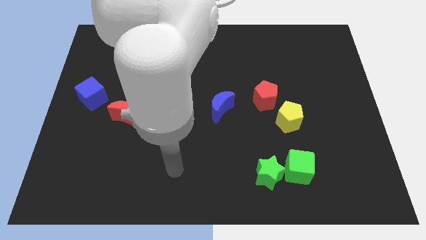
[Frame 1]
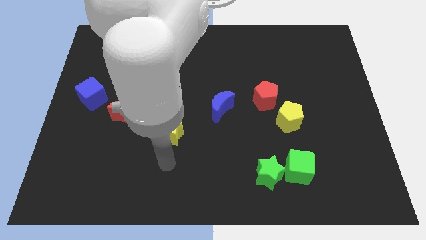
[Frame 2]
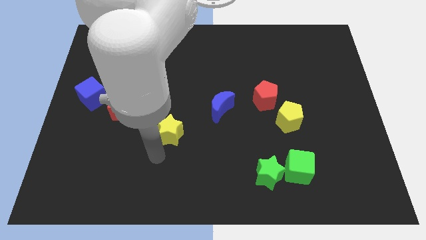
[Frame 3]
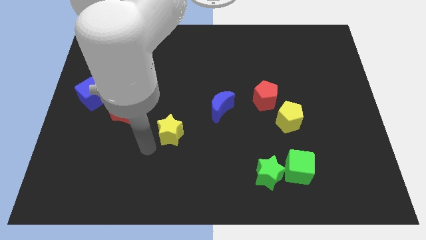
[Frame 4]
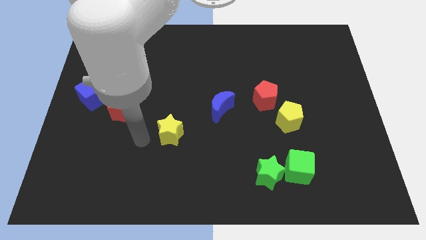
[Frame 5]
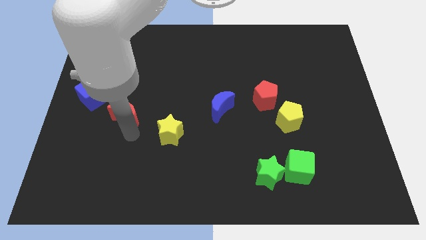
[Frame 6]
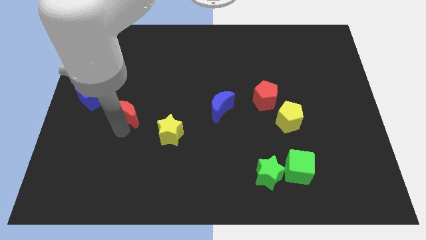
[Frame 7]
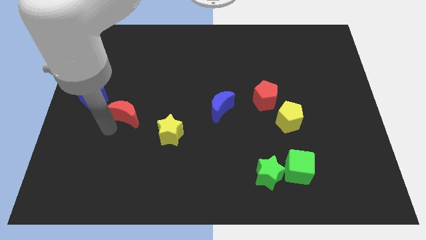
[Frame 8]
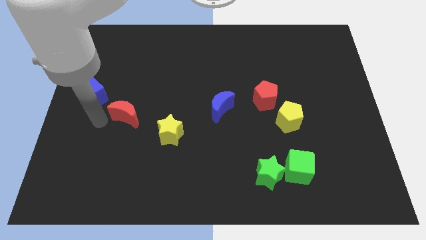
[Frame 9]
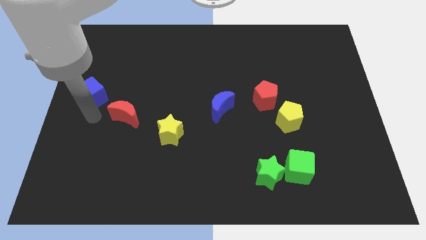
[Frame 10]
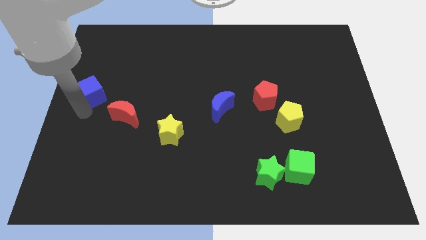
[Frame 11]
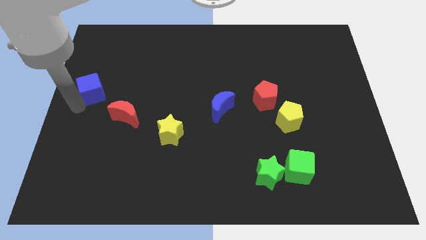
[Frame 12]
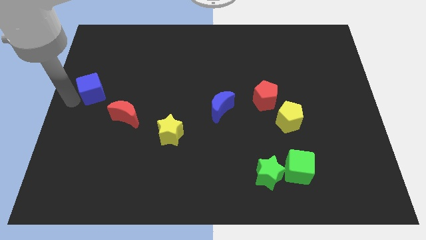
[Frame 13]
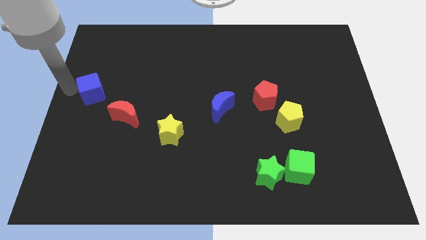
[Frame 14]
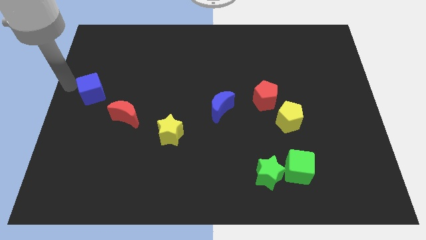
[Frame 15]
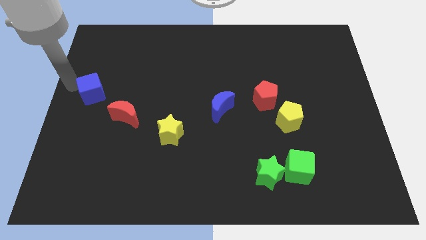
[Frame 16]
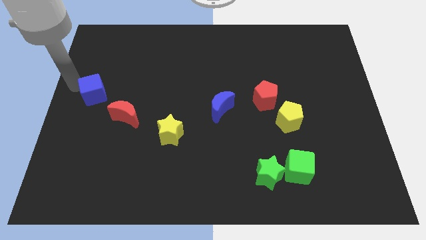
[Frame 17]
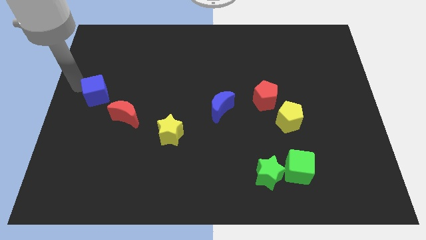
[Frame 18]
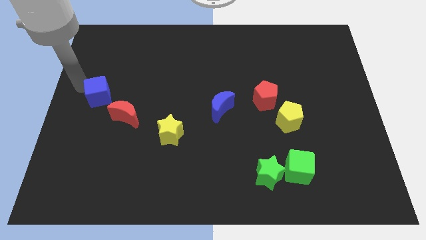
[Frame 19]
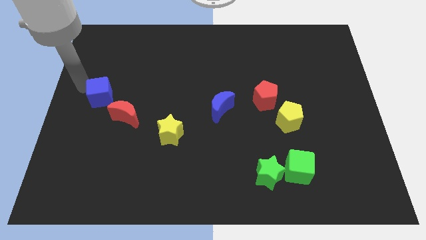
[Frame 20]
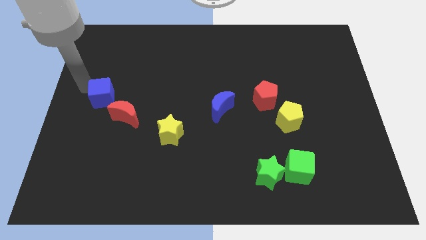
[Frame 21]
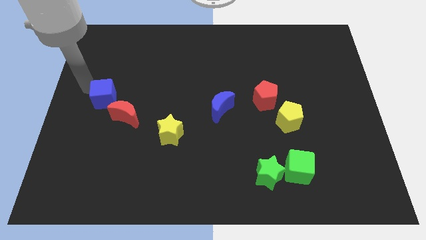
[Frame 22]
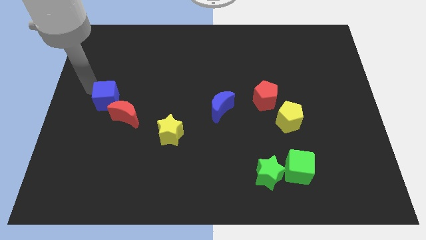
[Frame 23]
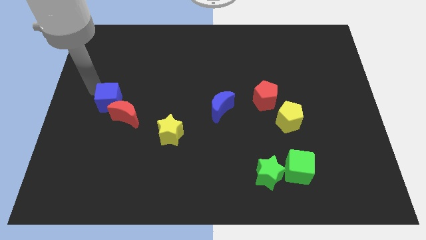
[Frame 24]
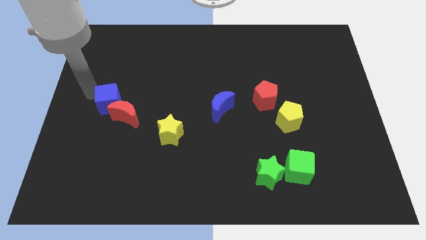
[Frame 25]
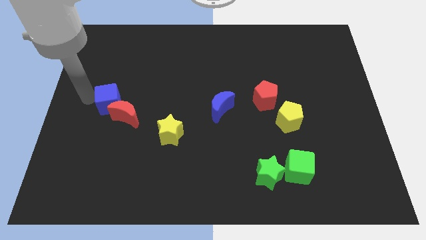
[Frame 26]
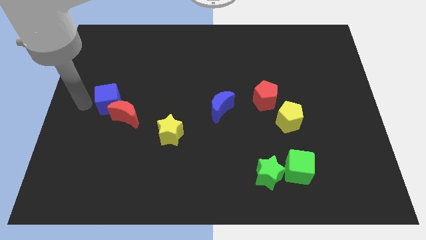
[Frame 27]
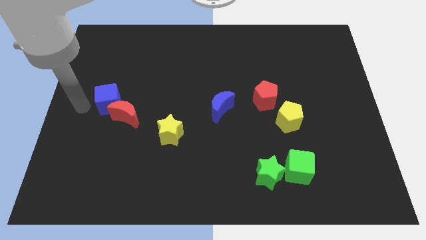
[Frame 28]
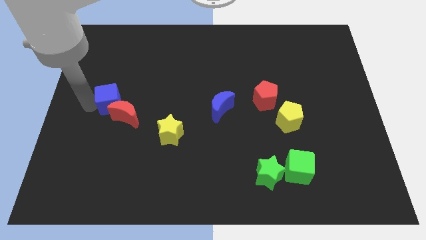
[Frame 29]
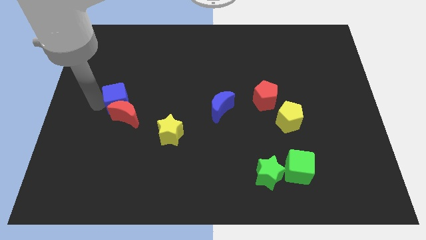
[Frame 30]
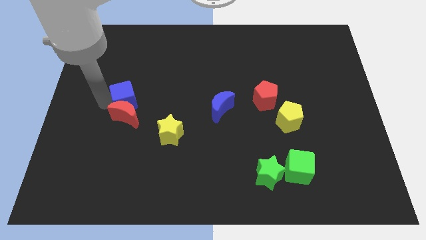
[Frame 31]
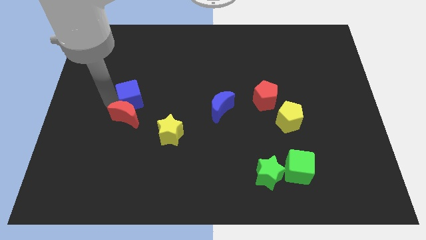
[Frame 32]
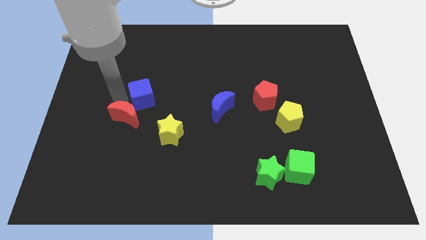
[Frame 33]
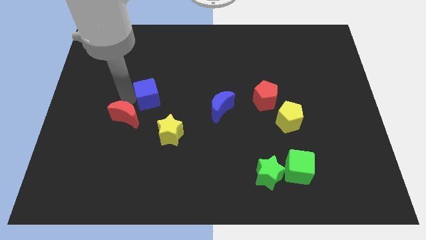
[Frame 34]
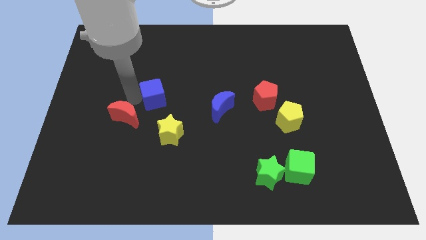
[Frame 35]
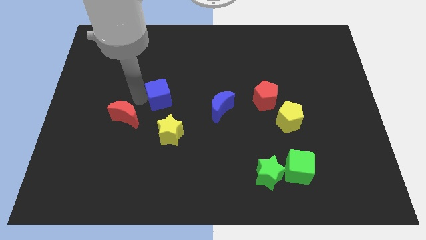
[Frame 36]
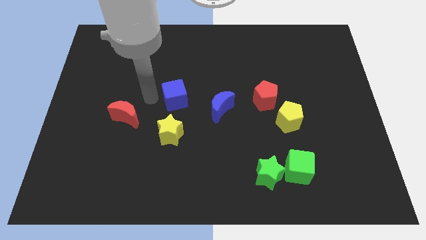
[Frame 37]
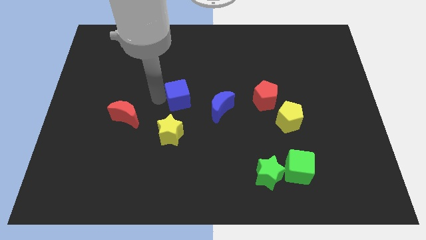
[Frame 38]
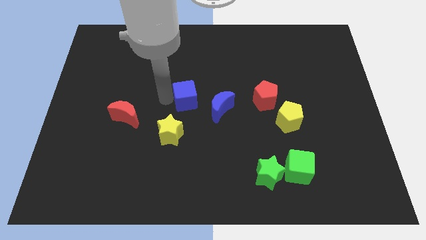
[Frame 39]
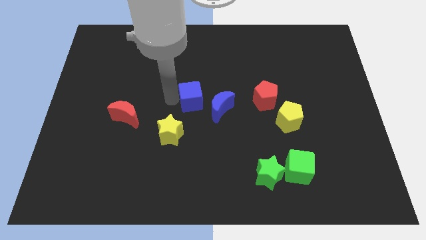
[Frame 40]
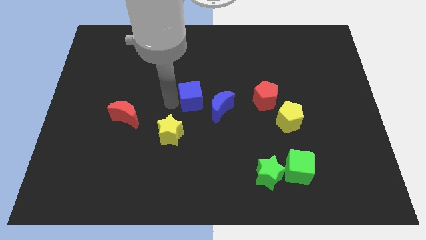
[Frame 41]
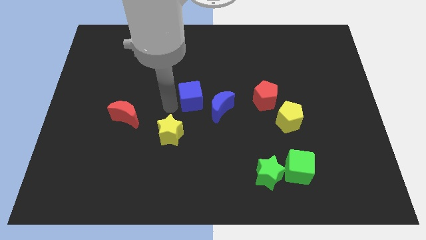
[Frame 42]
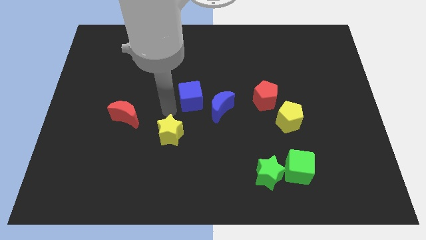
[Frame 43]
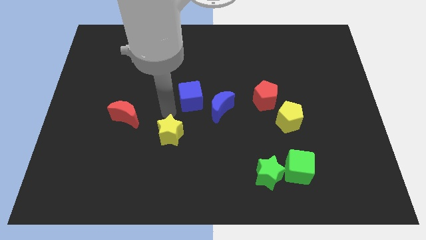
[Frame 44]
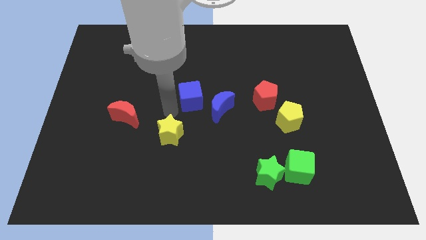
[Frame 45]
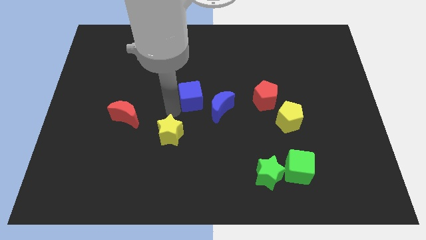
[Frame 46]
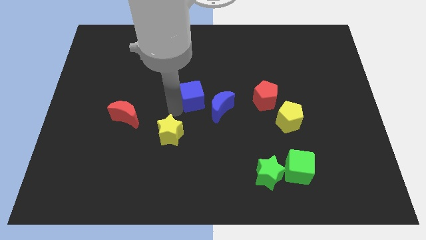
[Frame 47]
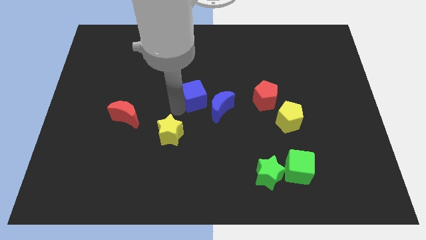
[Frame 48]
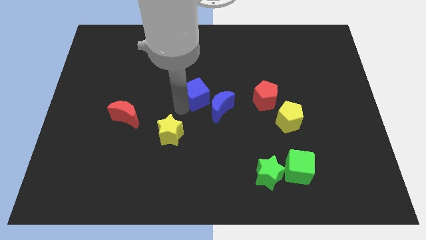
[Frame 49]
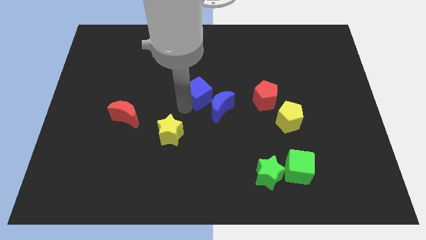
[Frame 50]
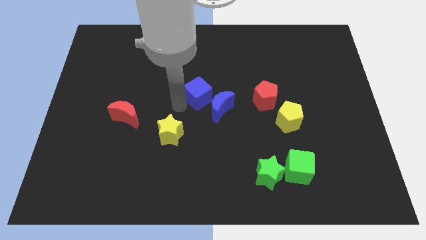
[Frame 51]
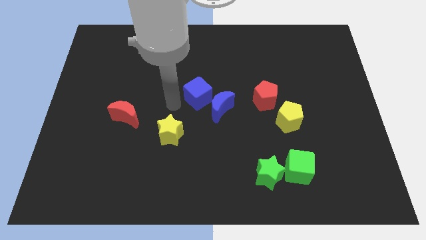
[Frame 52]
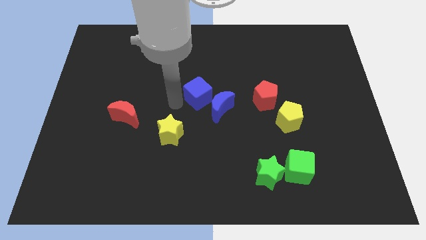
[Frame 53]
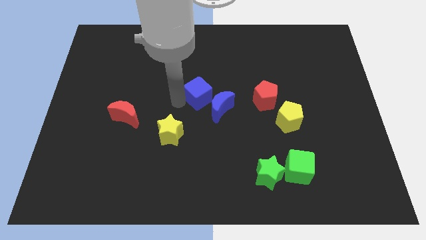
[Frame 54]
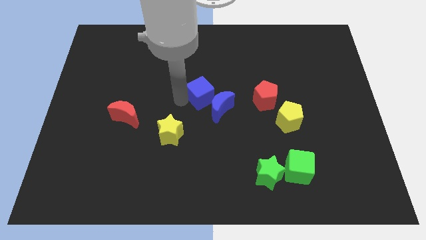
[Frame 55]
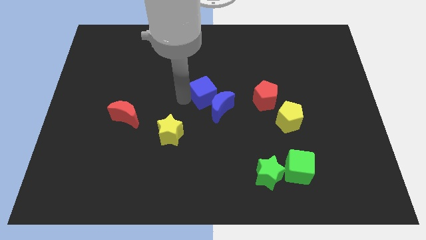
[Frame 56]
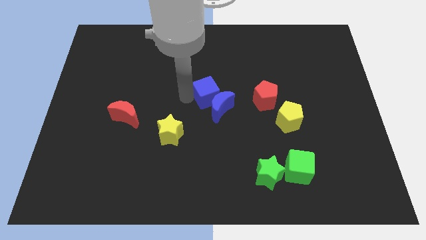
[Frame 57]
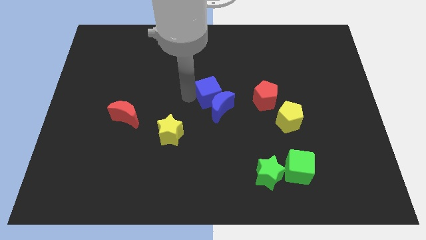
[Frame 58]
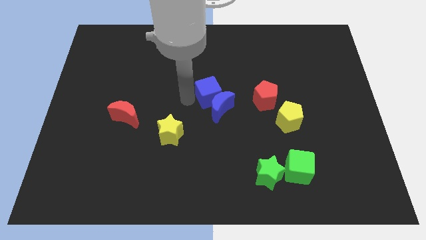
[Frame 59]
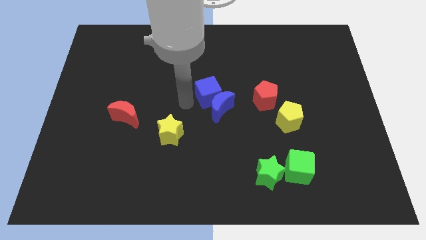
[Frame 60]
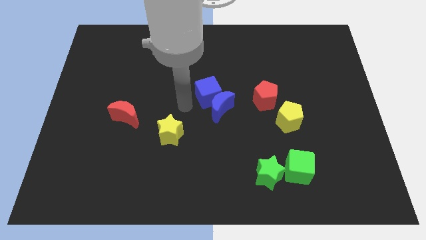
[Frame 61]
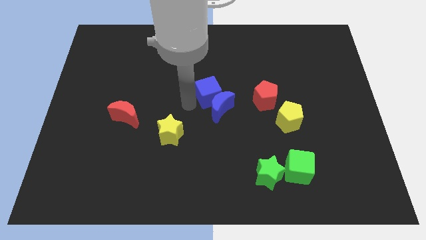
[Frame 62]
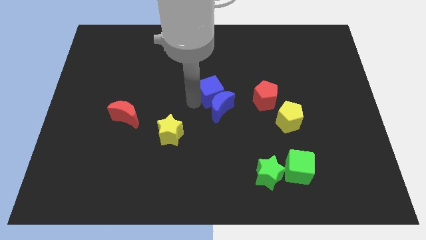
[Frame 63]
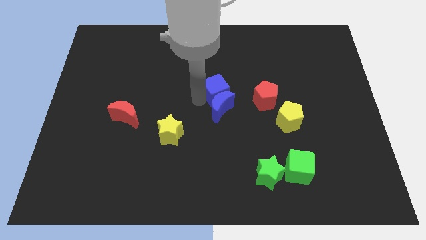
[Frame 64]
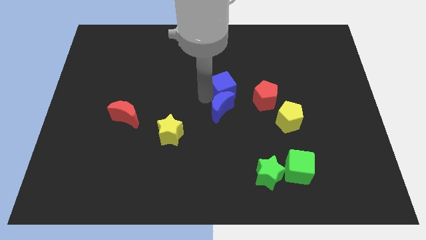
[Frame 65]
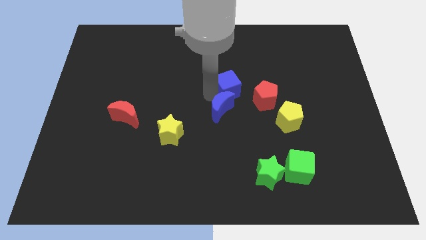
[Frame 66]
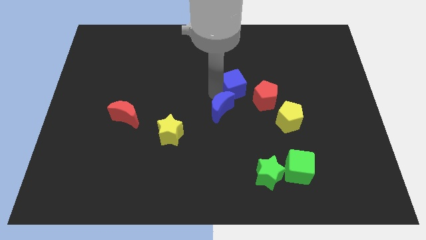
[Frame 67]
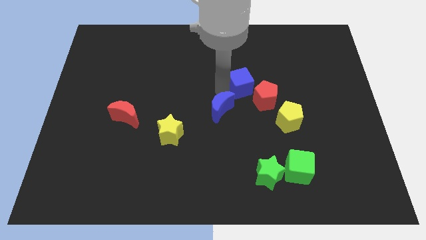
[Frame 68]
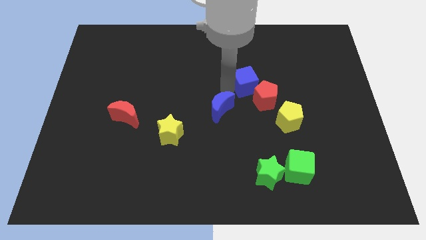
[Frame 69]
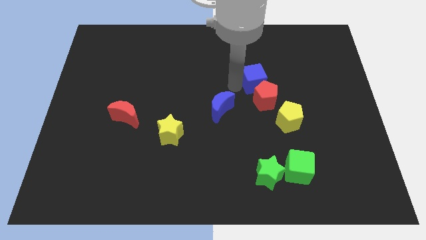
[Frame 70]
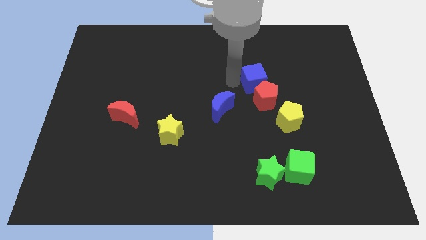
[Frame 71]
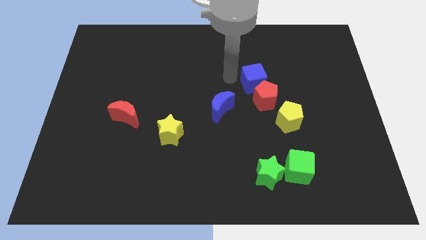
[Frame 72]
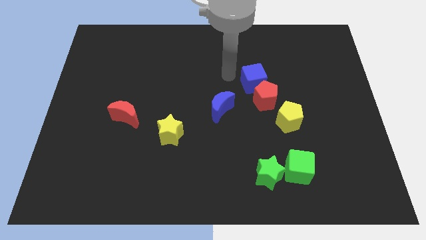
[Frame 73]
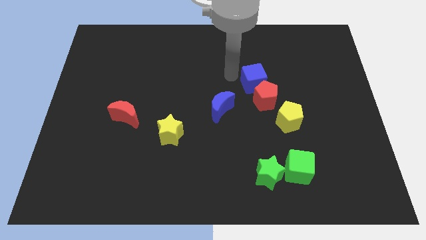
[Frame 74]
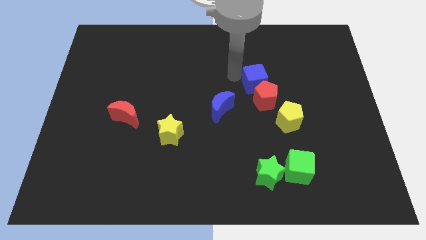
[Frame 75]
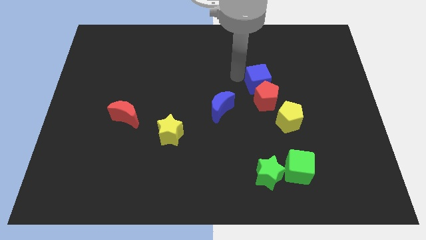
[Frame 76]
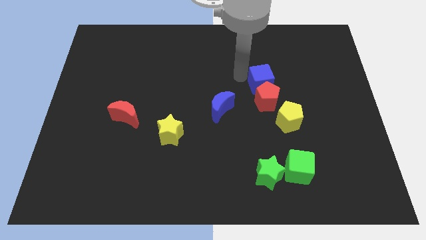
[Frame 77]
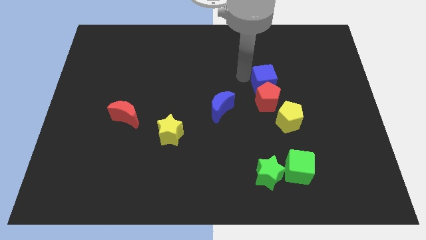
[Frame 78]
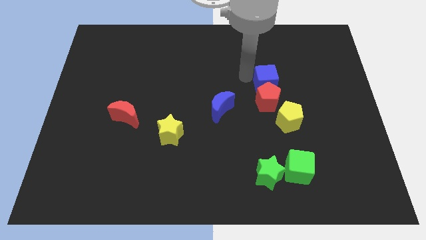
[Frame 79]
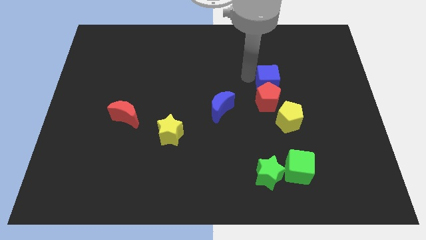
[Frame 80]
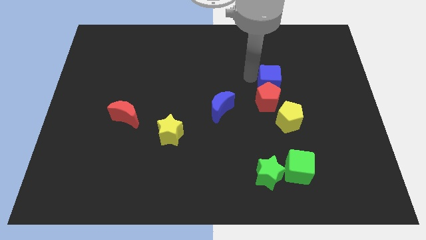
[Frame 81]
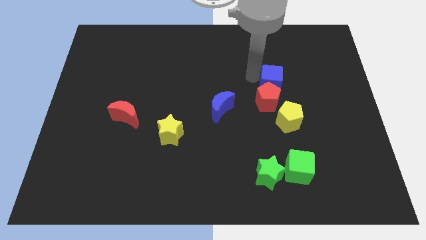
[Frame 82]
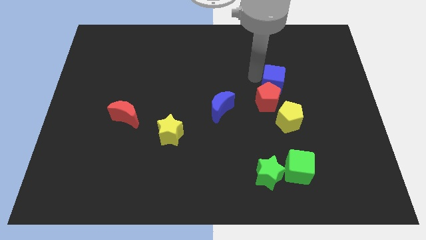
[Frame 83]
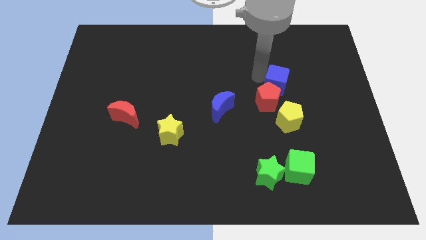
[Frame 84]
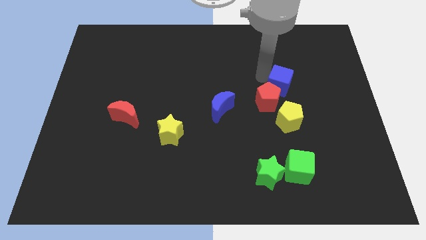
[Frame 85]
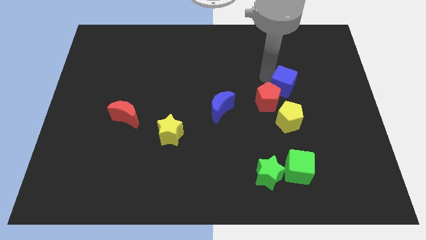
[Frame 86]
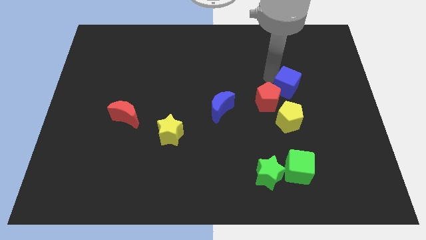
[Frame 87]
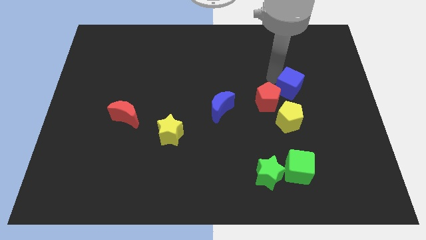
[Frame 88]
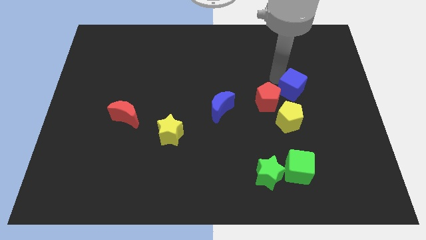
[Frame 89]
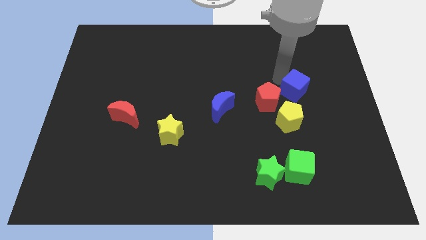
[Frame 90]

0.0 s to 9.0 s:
slide the blue cube to the top right of the yellow pentagon
